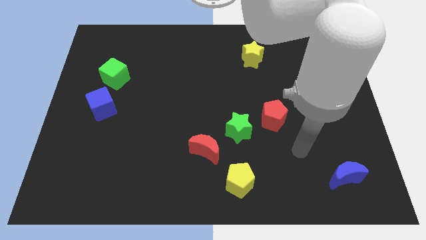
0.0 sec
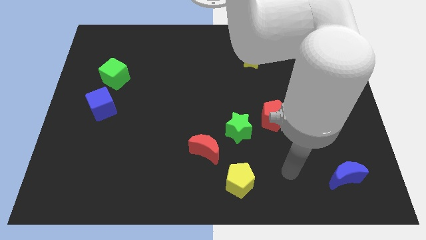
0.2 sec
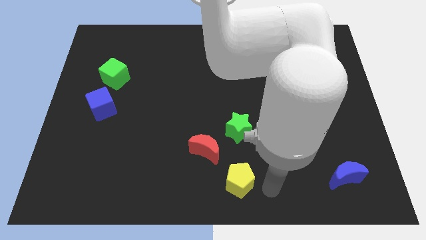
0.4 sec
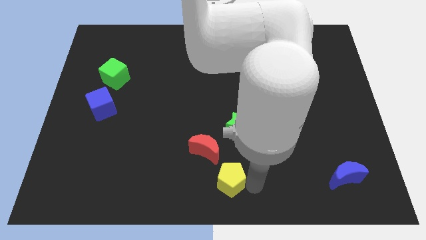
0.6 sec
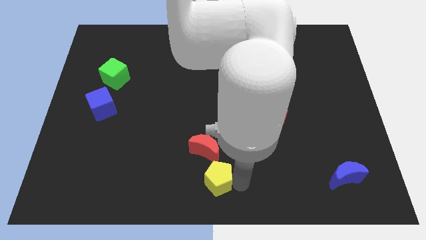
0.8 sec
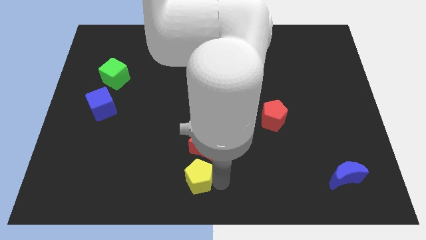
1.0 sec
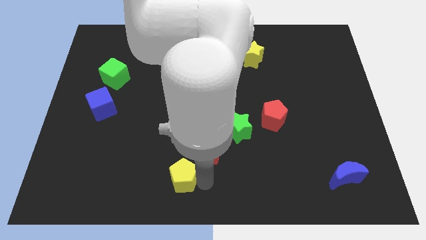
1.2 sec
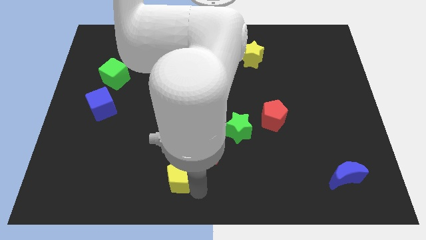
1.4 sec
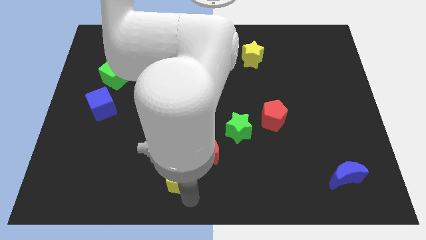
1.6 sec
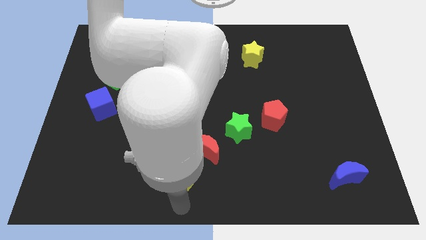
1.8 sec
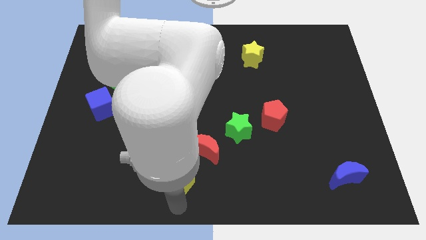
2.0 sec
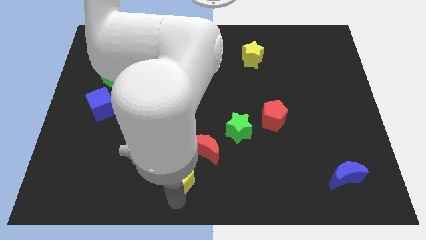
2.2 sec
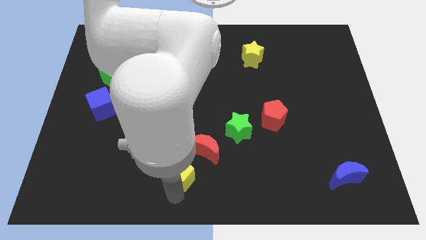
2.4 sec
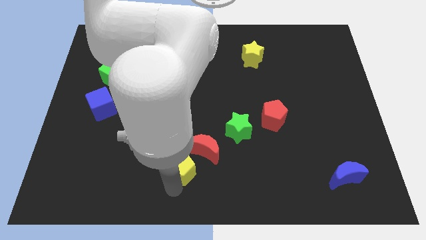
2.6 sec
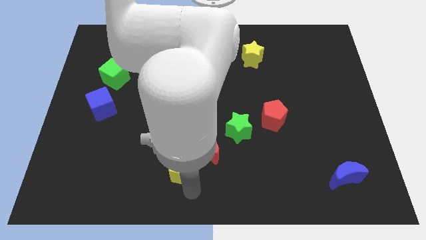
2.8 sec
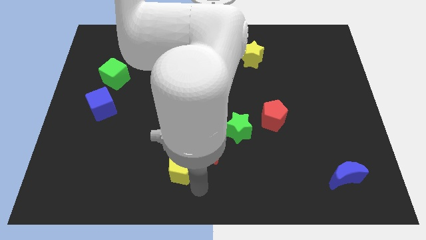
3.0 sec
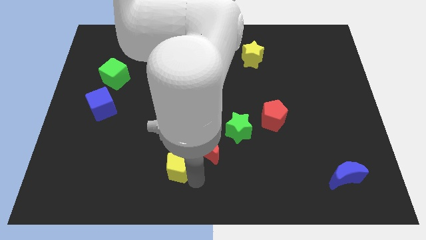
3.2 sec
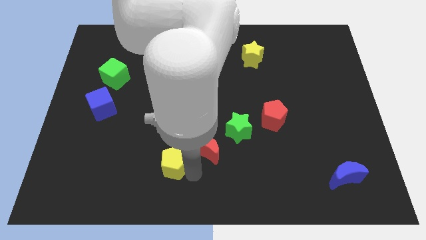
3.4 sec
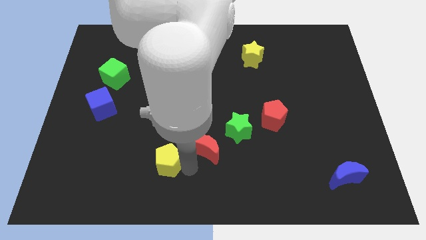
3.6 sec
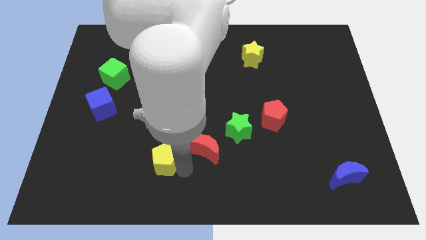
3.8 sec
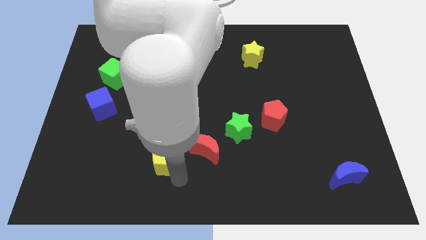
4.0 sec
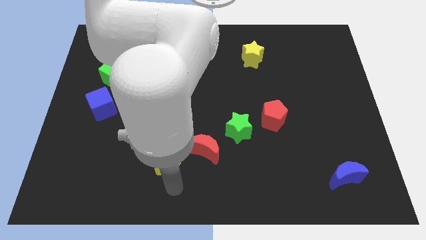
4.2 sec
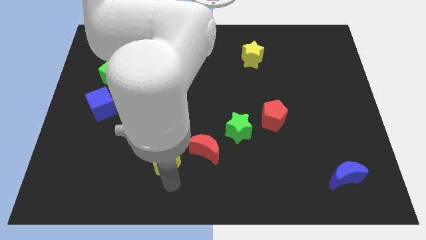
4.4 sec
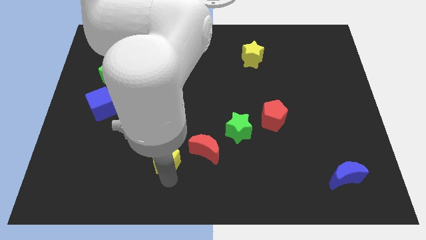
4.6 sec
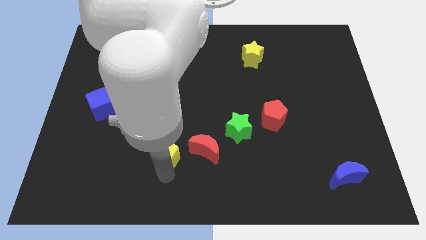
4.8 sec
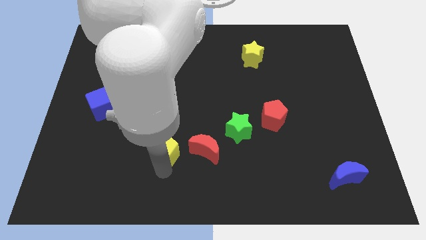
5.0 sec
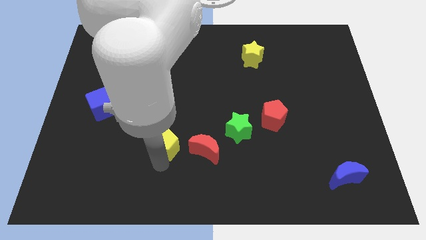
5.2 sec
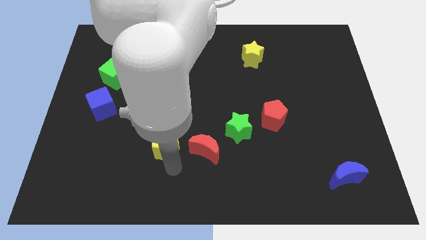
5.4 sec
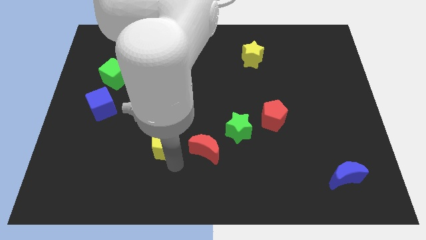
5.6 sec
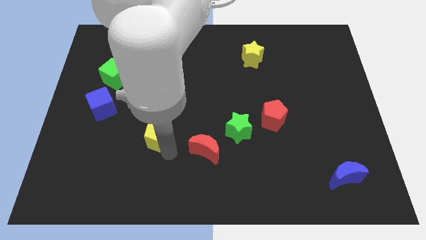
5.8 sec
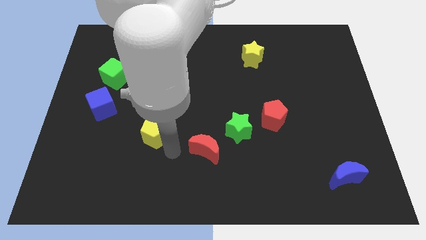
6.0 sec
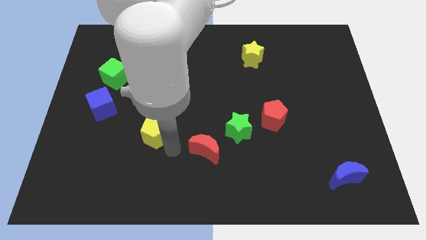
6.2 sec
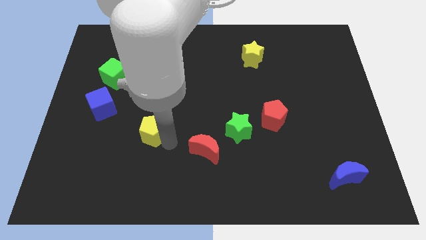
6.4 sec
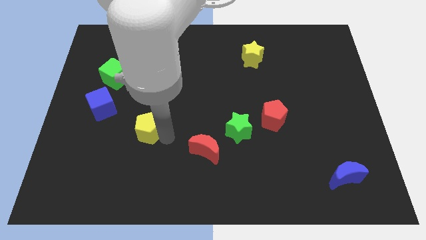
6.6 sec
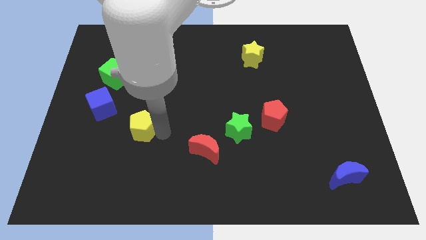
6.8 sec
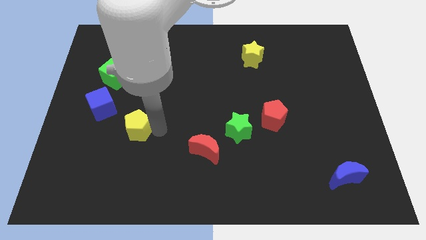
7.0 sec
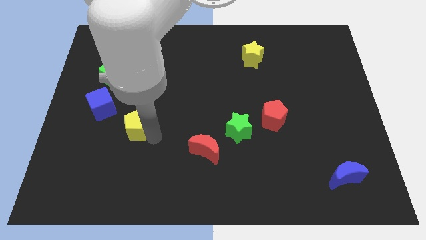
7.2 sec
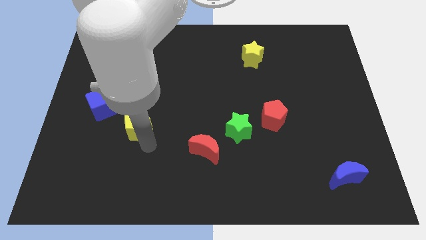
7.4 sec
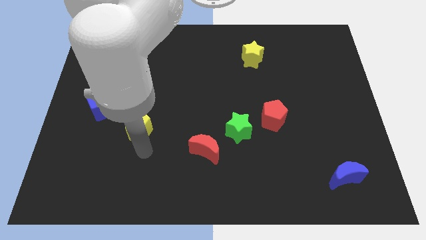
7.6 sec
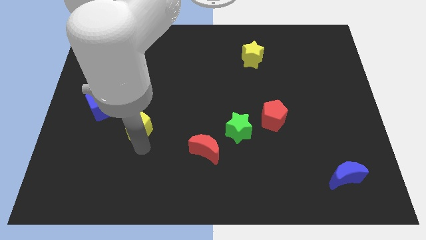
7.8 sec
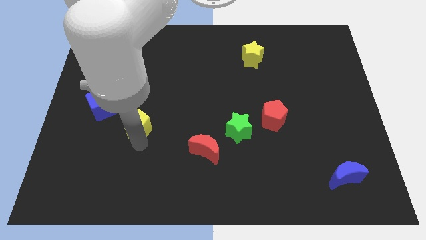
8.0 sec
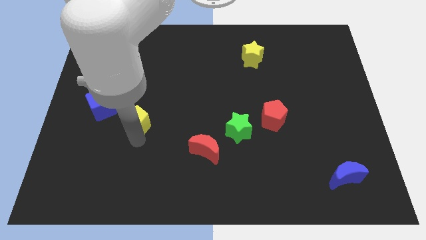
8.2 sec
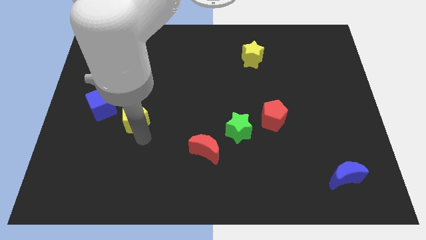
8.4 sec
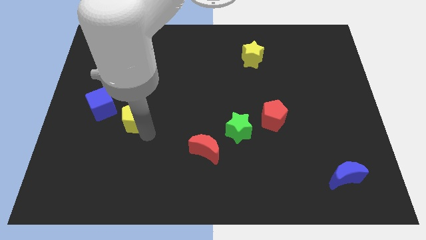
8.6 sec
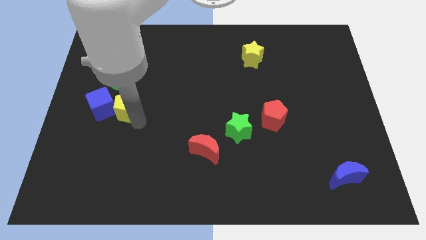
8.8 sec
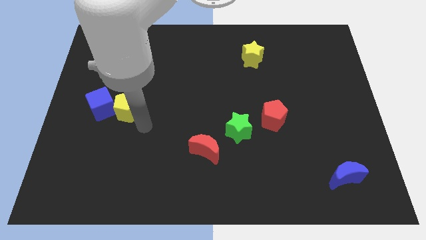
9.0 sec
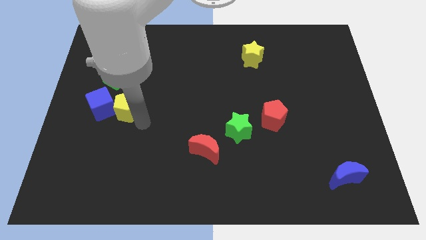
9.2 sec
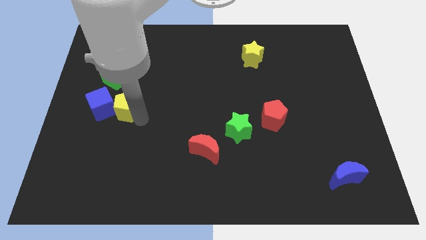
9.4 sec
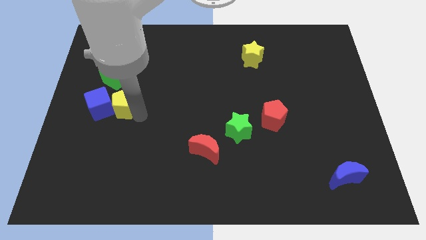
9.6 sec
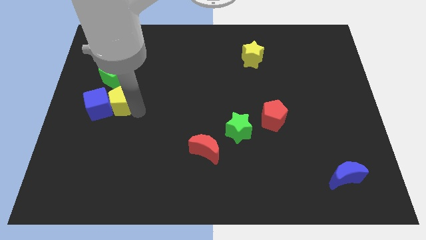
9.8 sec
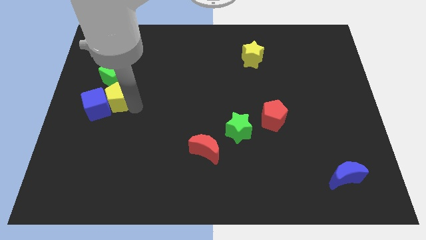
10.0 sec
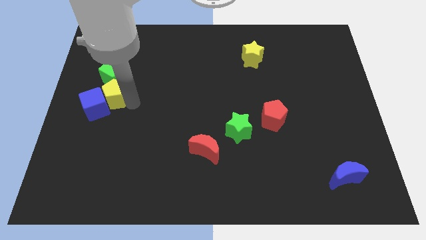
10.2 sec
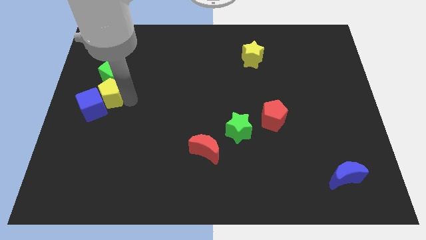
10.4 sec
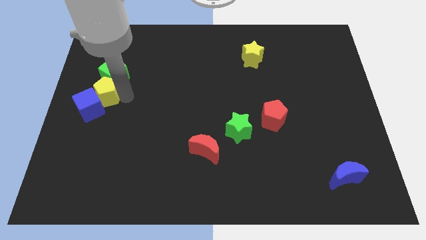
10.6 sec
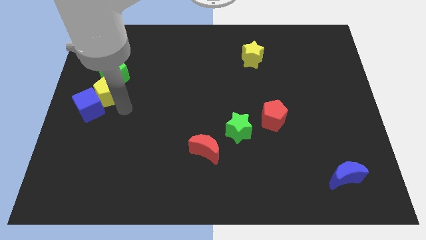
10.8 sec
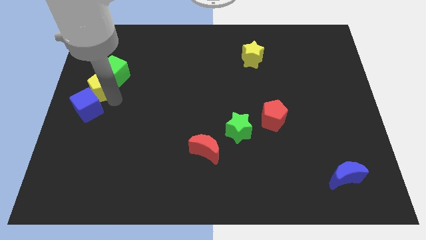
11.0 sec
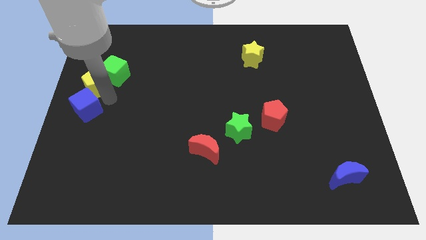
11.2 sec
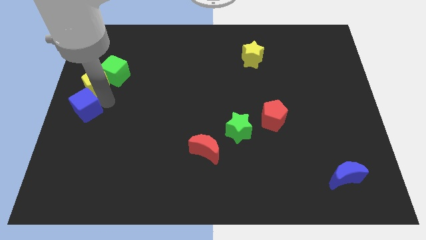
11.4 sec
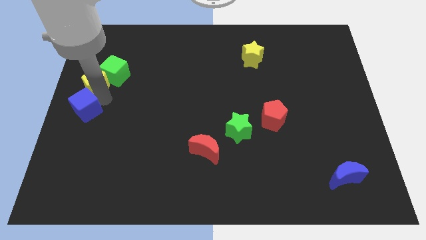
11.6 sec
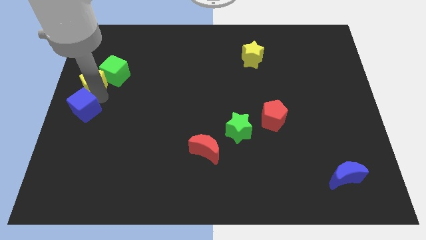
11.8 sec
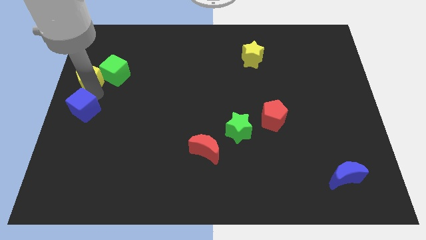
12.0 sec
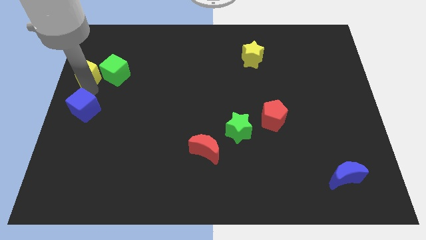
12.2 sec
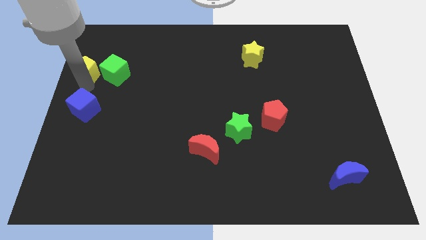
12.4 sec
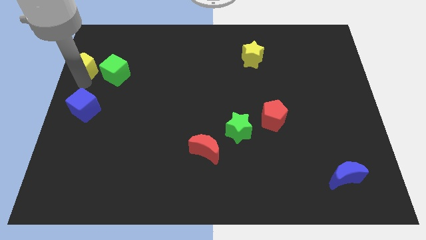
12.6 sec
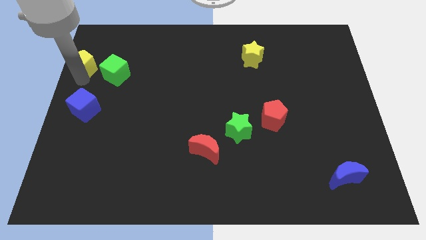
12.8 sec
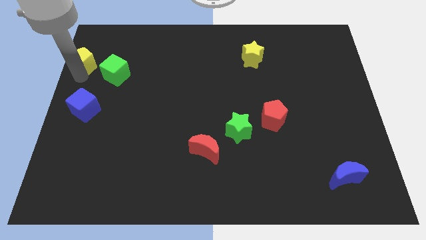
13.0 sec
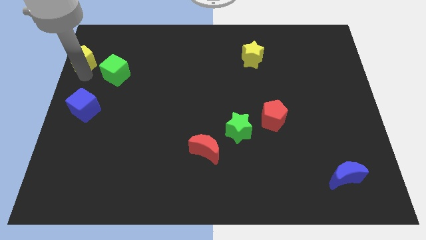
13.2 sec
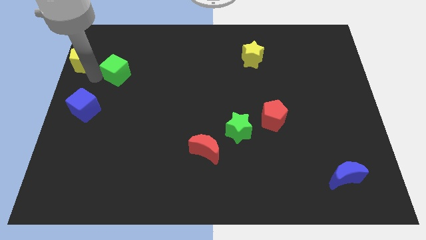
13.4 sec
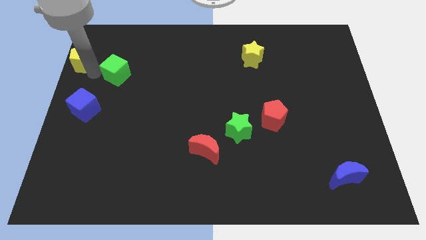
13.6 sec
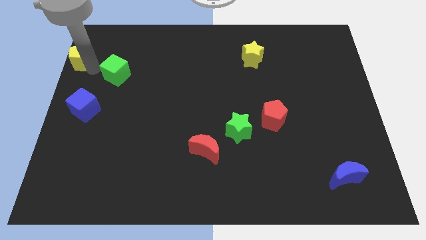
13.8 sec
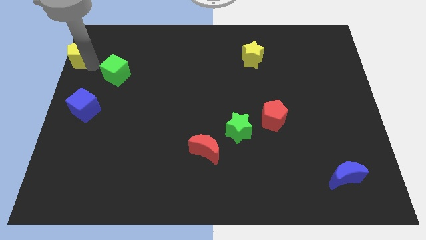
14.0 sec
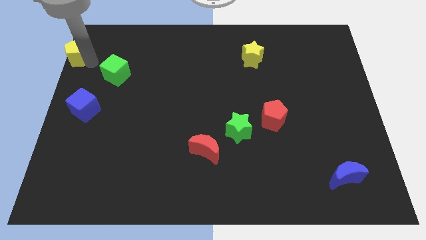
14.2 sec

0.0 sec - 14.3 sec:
slide the yellow pentagon to the top left

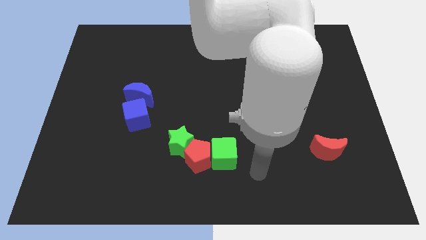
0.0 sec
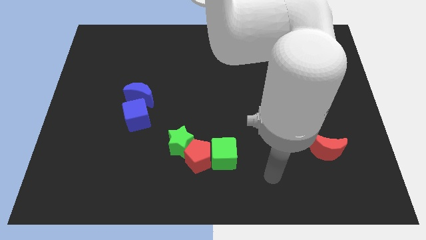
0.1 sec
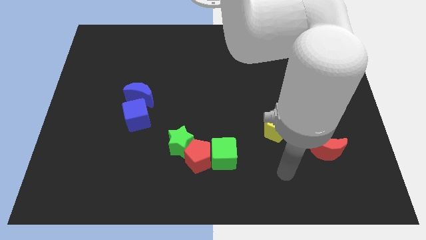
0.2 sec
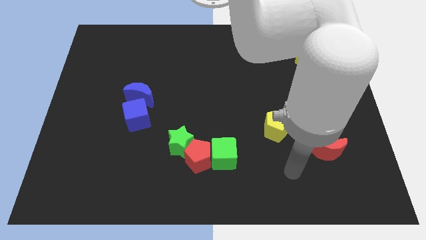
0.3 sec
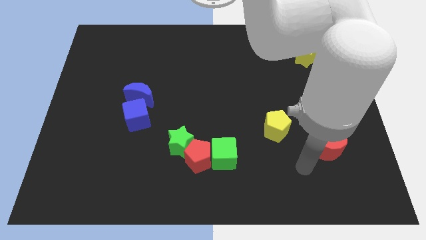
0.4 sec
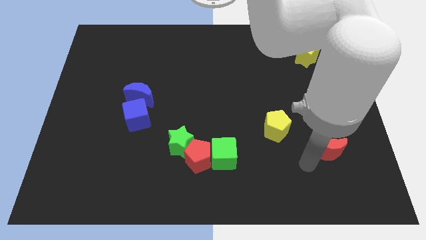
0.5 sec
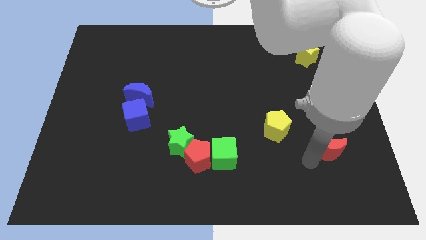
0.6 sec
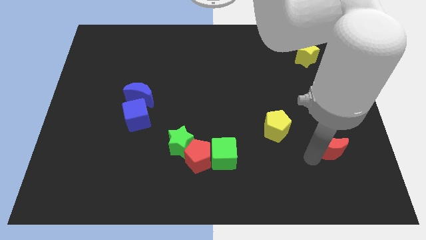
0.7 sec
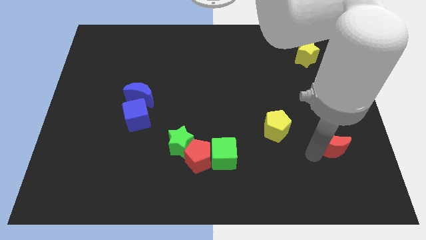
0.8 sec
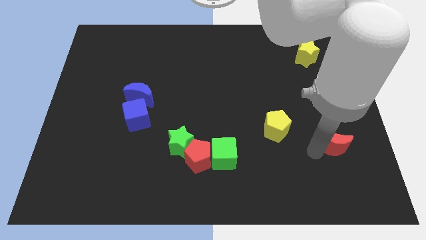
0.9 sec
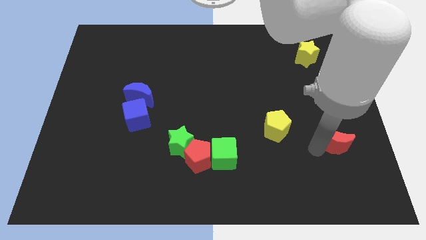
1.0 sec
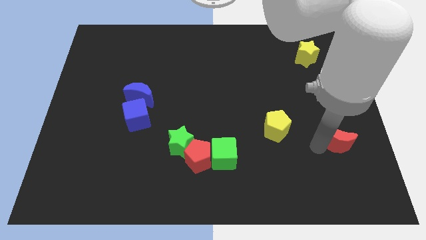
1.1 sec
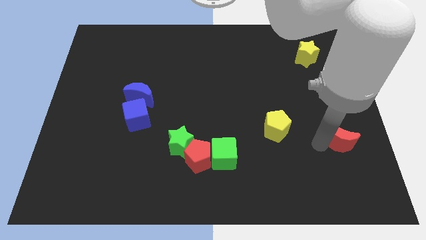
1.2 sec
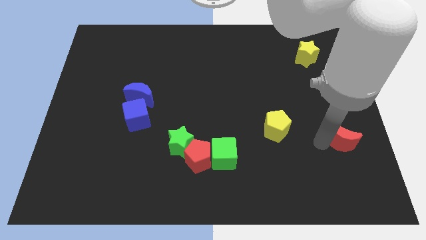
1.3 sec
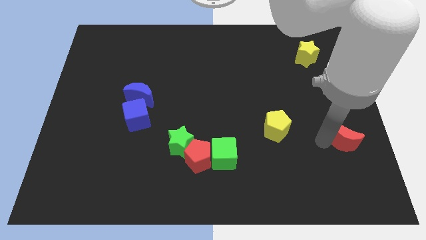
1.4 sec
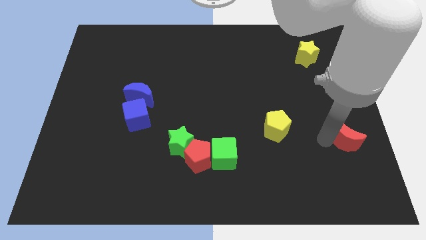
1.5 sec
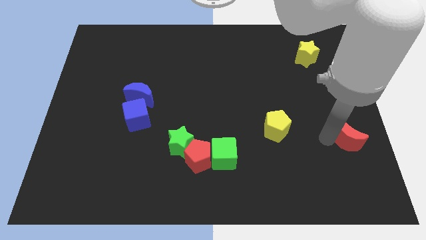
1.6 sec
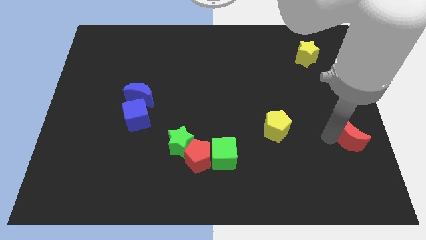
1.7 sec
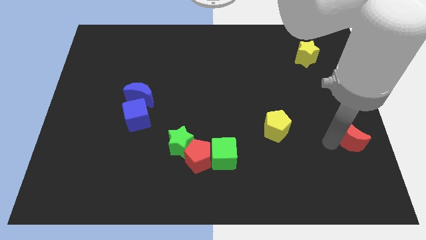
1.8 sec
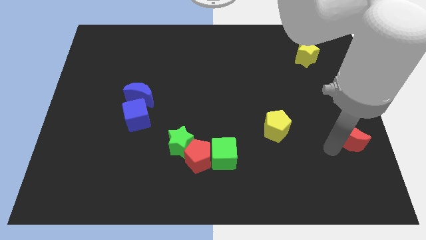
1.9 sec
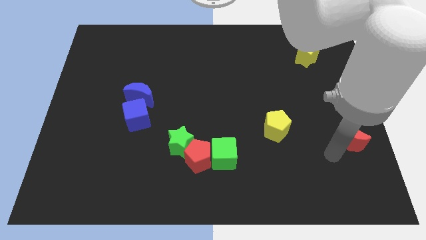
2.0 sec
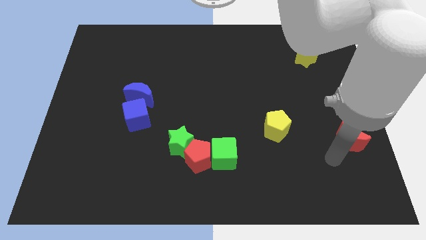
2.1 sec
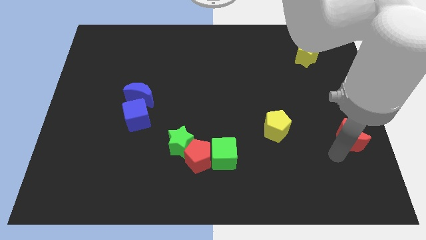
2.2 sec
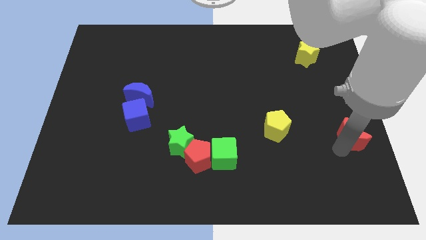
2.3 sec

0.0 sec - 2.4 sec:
put the red moon to the right side of the board
